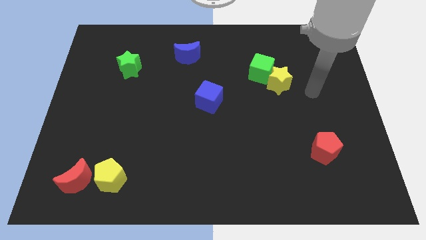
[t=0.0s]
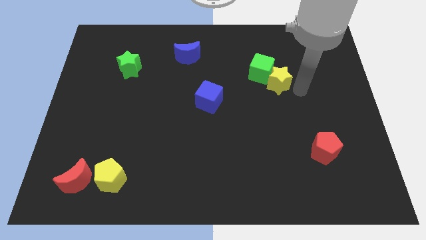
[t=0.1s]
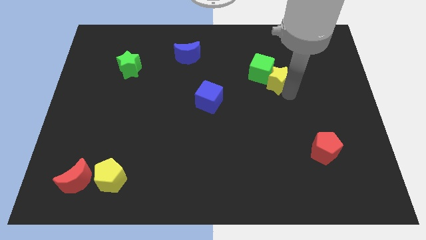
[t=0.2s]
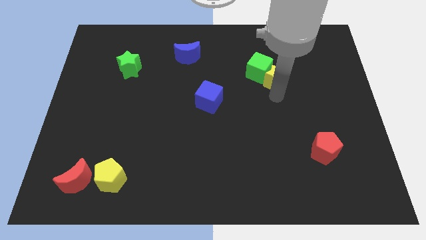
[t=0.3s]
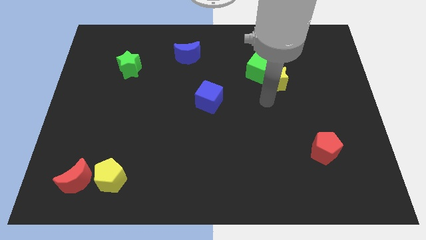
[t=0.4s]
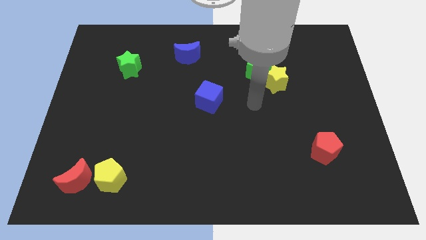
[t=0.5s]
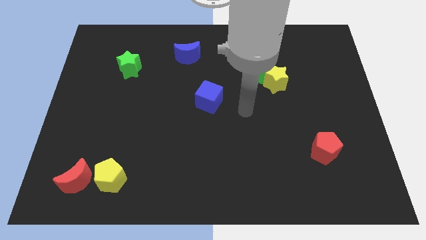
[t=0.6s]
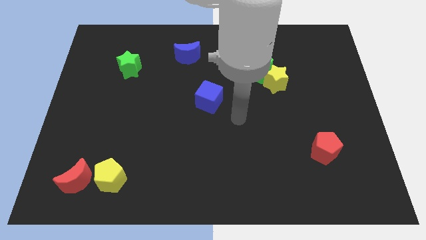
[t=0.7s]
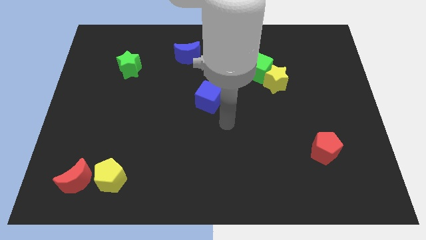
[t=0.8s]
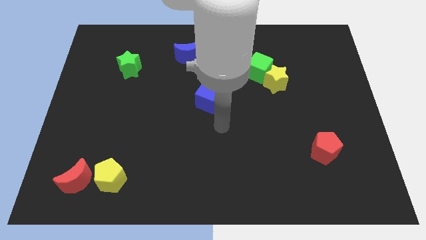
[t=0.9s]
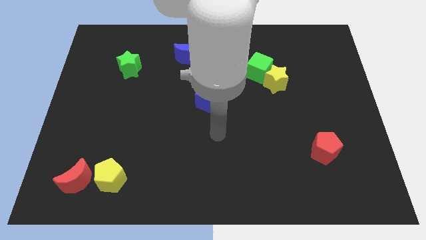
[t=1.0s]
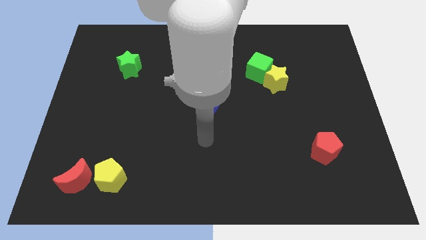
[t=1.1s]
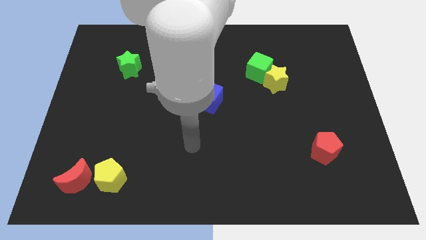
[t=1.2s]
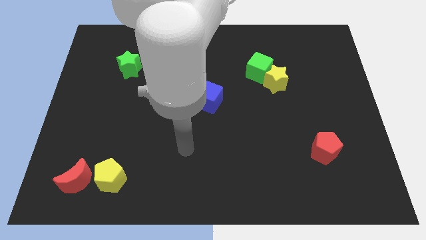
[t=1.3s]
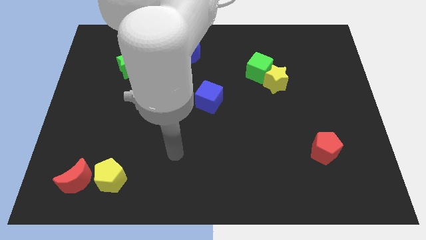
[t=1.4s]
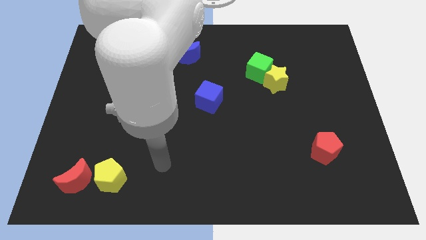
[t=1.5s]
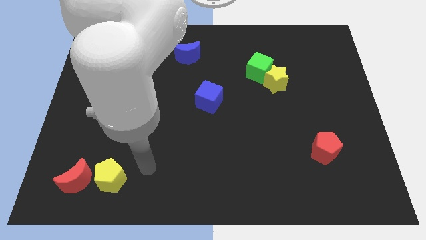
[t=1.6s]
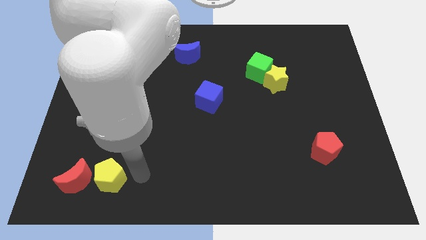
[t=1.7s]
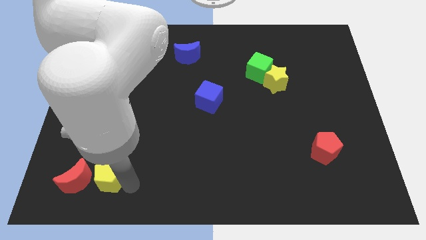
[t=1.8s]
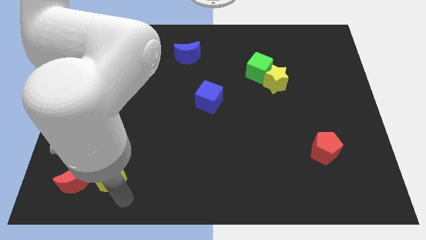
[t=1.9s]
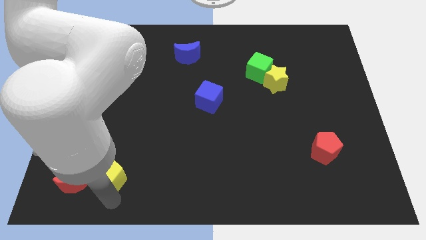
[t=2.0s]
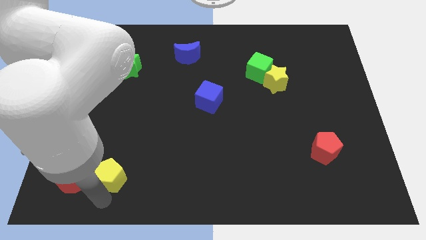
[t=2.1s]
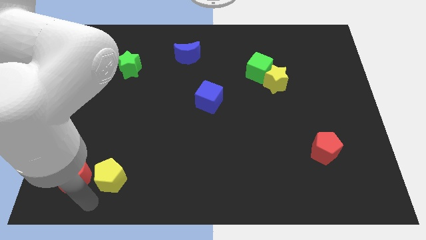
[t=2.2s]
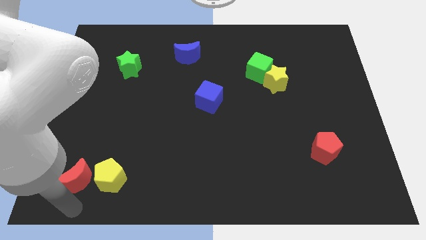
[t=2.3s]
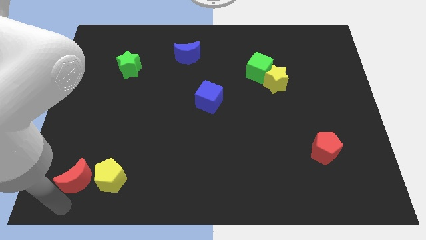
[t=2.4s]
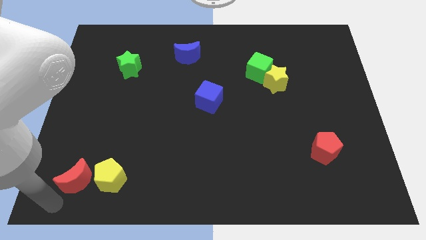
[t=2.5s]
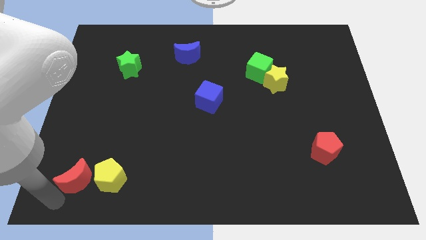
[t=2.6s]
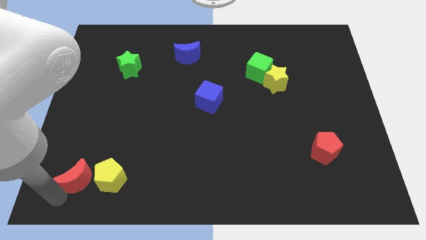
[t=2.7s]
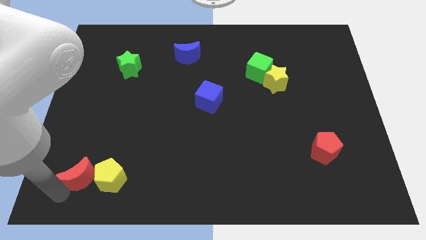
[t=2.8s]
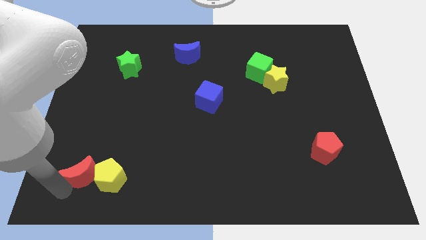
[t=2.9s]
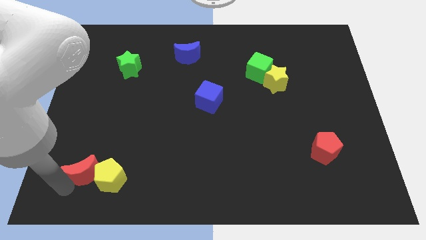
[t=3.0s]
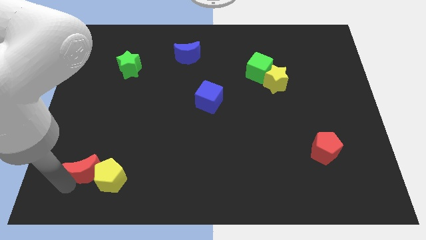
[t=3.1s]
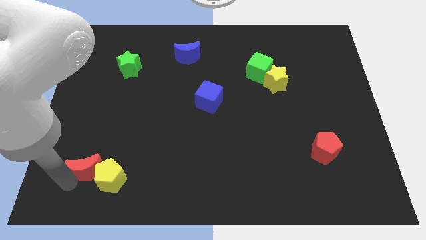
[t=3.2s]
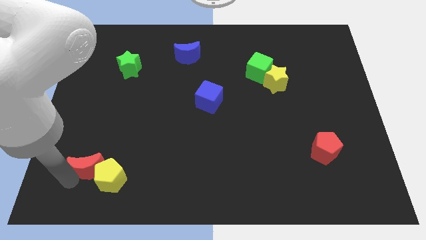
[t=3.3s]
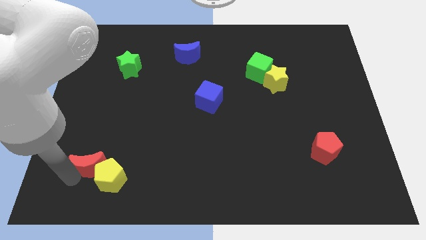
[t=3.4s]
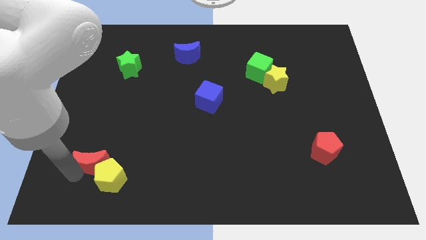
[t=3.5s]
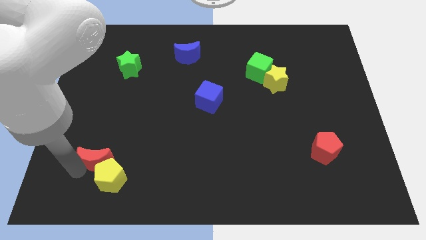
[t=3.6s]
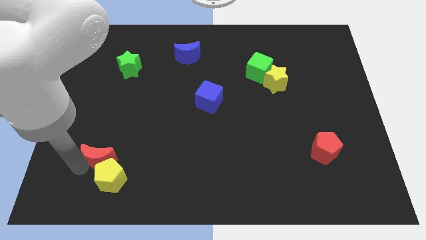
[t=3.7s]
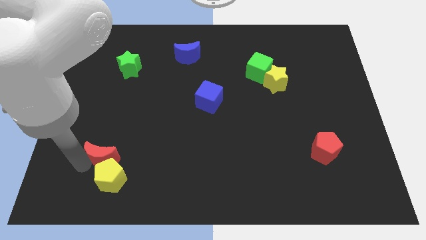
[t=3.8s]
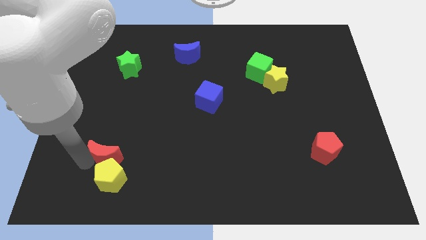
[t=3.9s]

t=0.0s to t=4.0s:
slide the red moon a little bit diagonally up and right

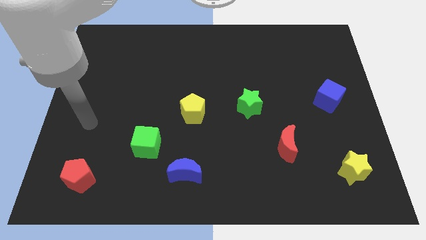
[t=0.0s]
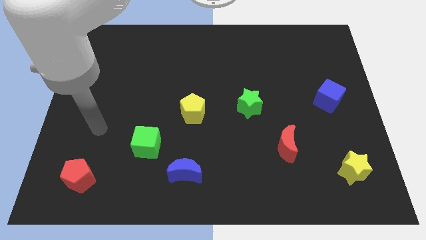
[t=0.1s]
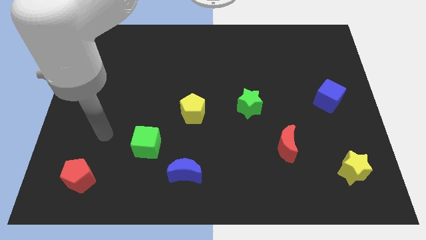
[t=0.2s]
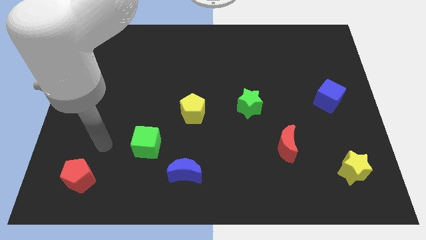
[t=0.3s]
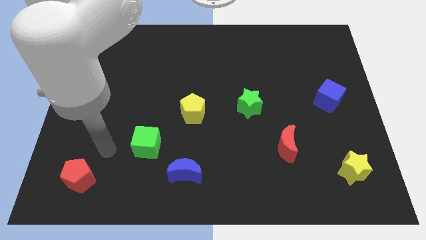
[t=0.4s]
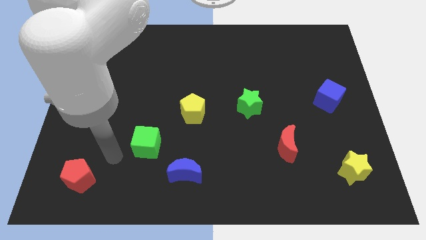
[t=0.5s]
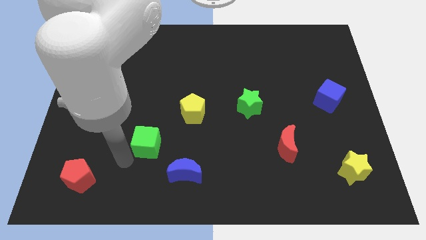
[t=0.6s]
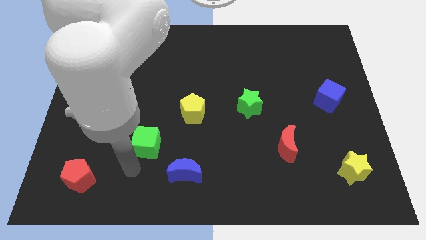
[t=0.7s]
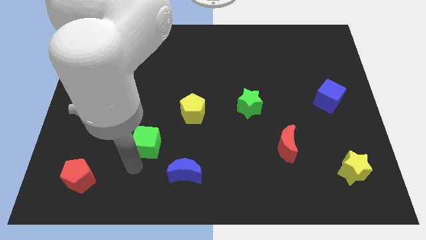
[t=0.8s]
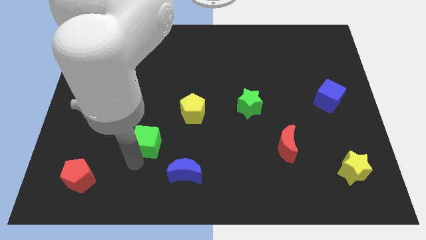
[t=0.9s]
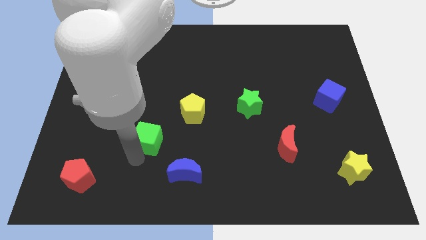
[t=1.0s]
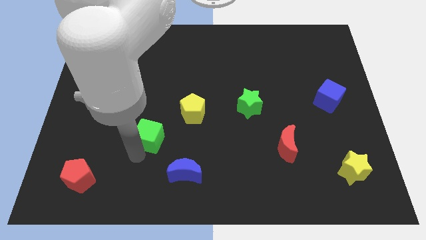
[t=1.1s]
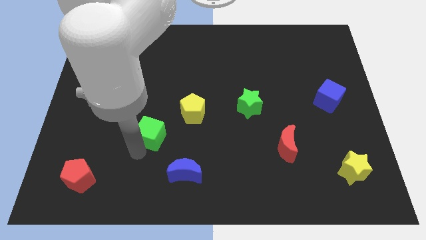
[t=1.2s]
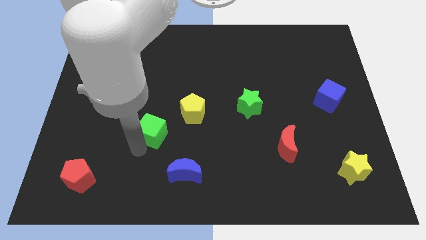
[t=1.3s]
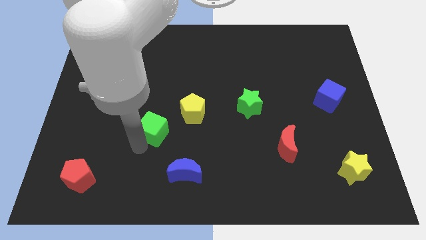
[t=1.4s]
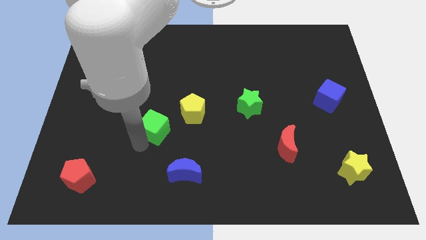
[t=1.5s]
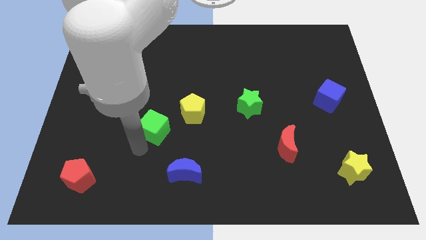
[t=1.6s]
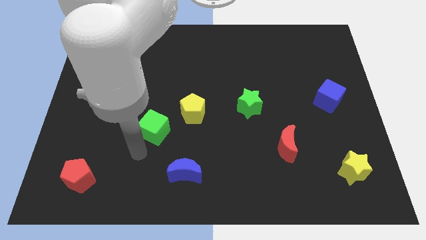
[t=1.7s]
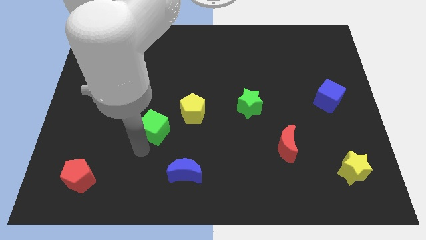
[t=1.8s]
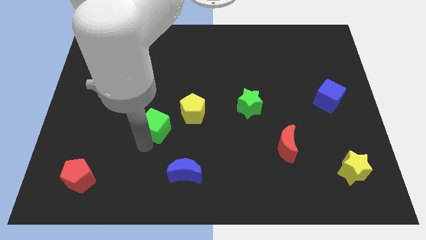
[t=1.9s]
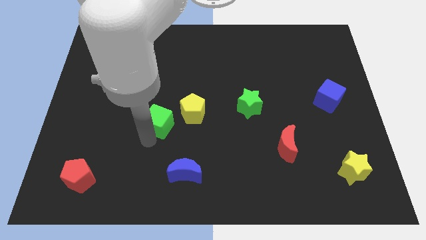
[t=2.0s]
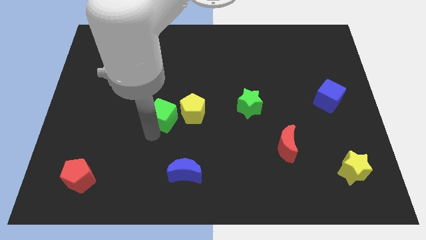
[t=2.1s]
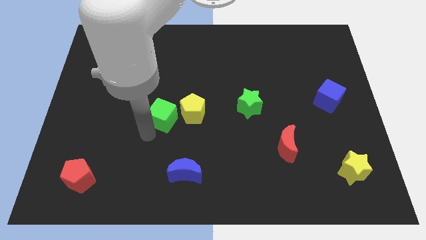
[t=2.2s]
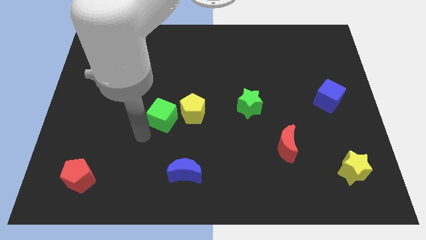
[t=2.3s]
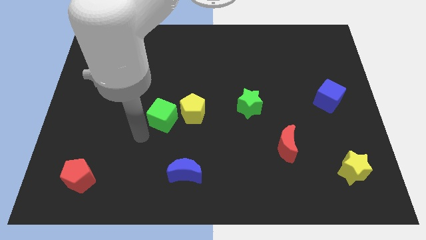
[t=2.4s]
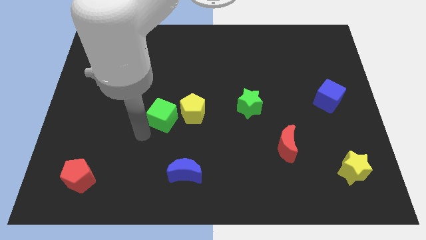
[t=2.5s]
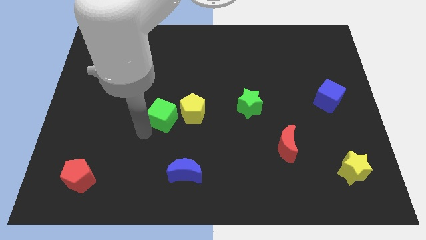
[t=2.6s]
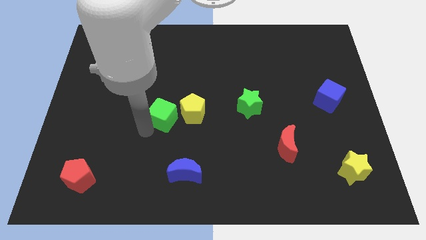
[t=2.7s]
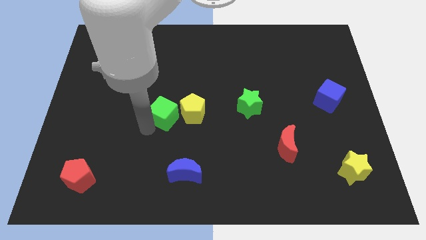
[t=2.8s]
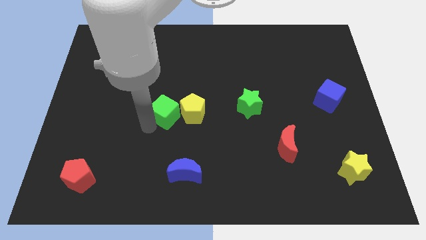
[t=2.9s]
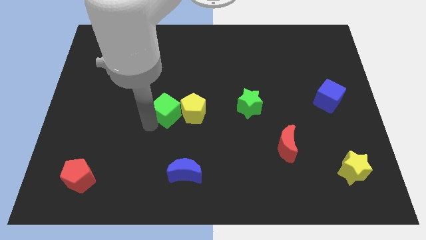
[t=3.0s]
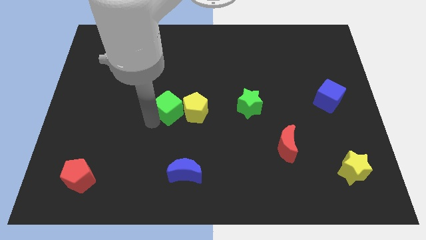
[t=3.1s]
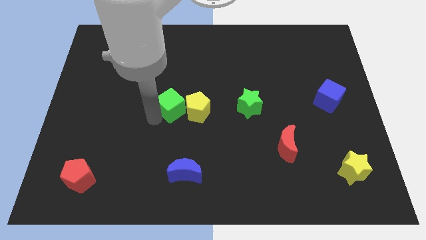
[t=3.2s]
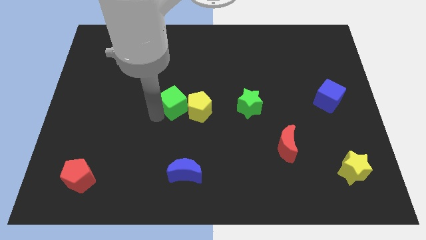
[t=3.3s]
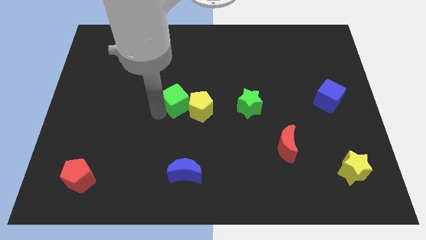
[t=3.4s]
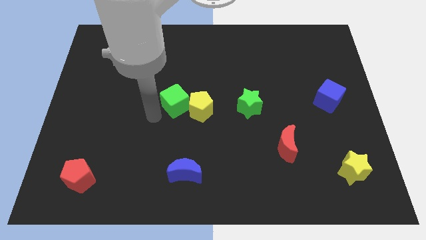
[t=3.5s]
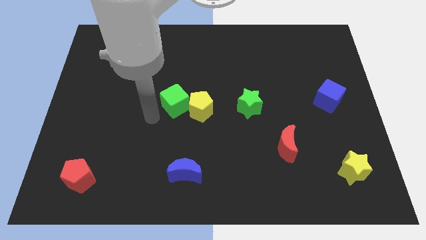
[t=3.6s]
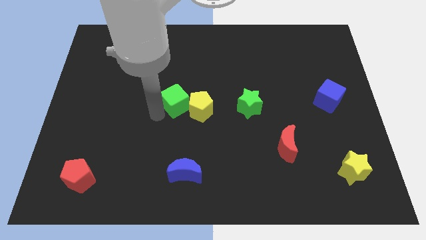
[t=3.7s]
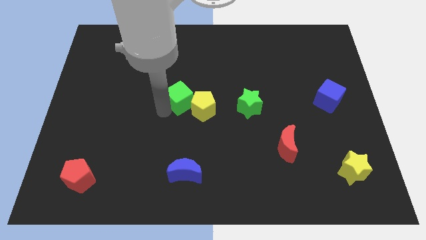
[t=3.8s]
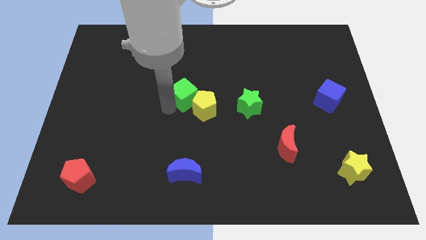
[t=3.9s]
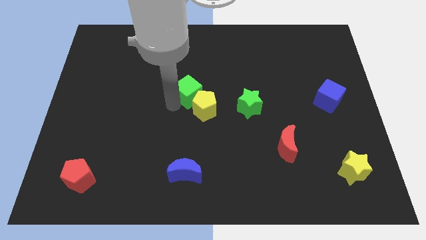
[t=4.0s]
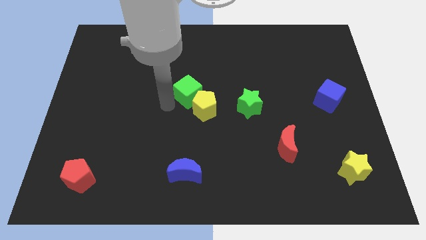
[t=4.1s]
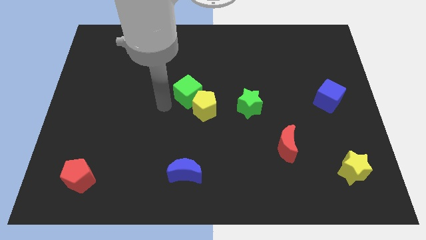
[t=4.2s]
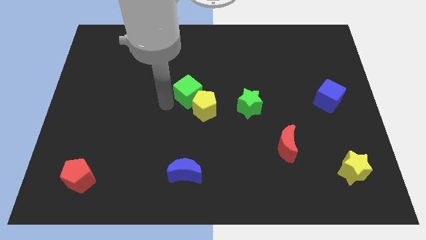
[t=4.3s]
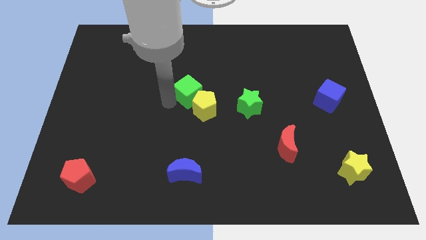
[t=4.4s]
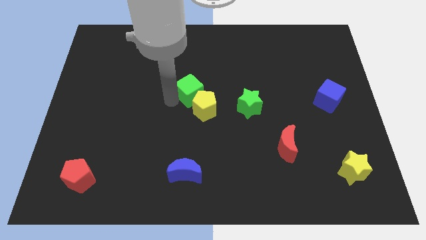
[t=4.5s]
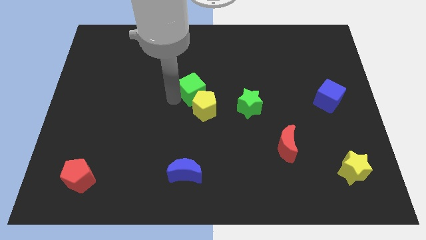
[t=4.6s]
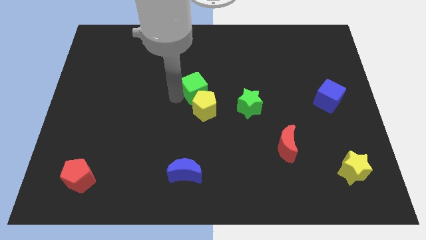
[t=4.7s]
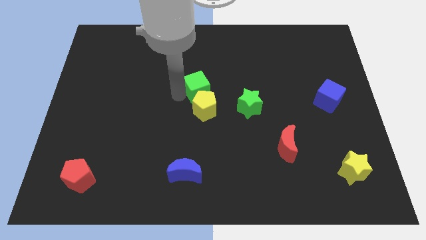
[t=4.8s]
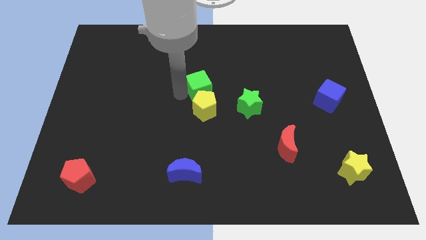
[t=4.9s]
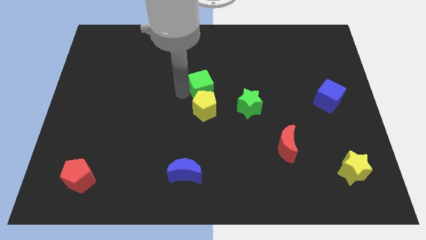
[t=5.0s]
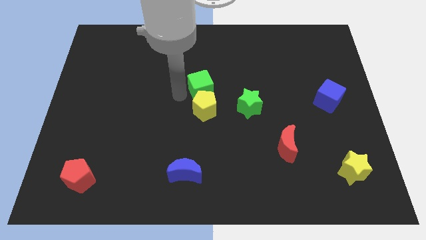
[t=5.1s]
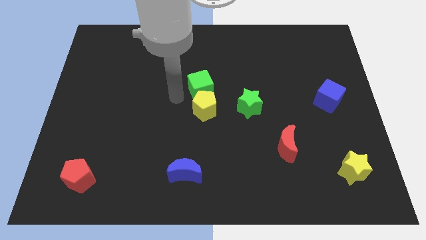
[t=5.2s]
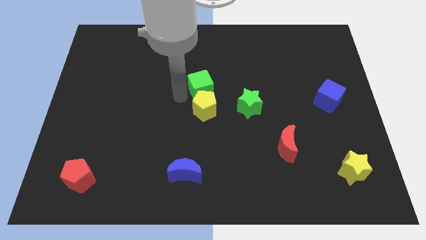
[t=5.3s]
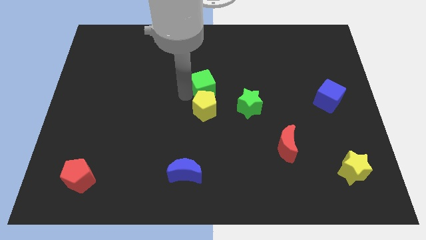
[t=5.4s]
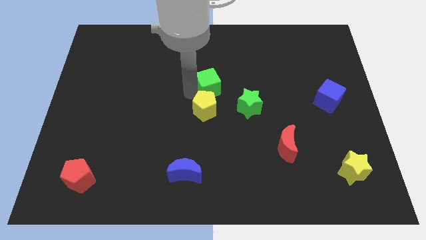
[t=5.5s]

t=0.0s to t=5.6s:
move the green cube upwards and right diagonally
